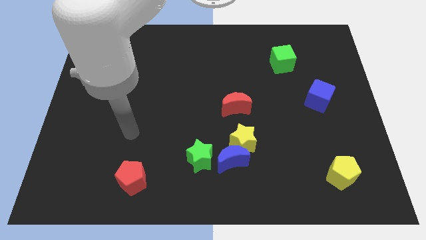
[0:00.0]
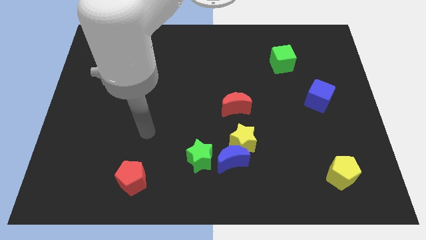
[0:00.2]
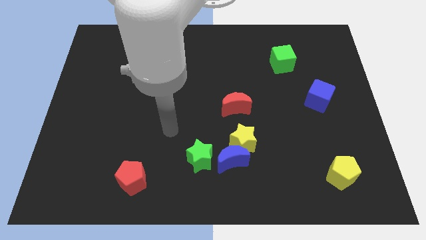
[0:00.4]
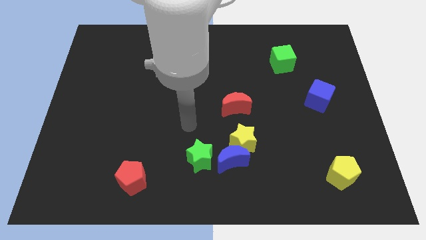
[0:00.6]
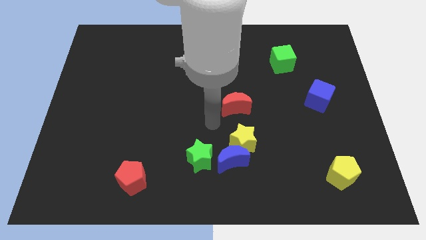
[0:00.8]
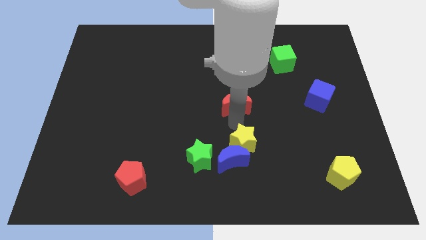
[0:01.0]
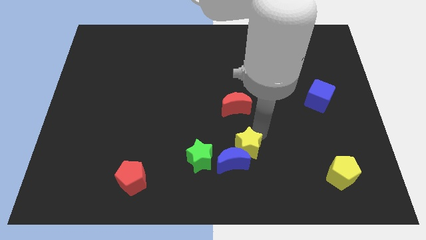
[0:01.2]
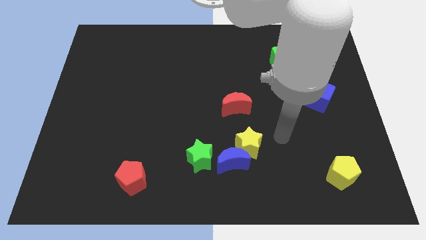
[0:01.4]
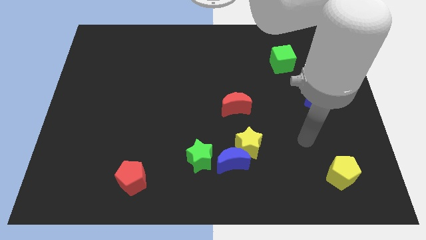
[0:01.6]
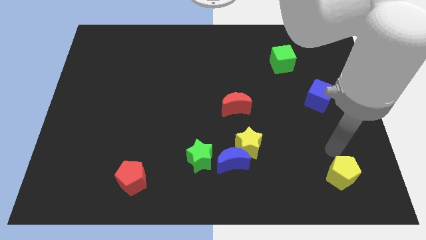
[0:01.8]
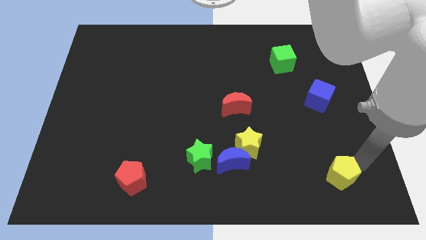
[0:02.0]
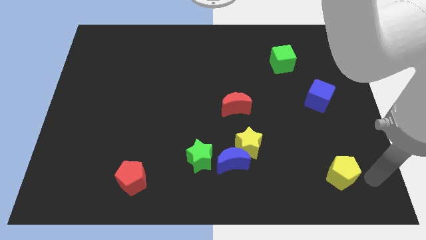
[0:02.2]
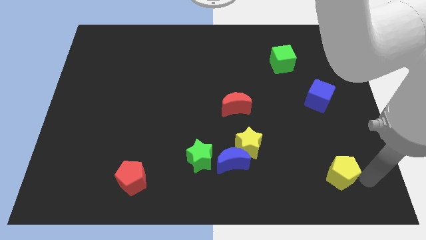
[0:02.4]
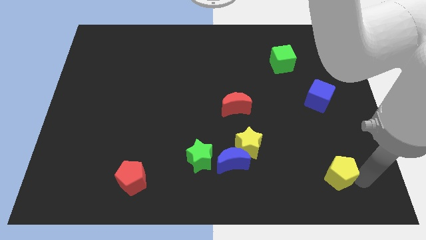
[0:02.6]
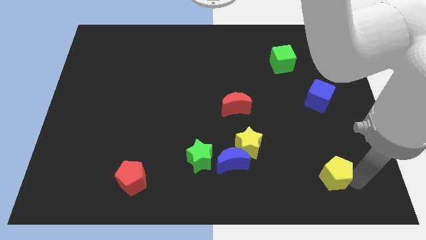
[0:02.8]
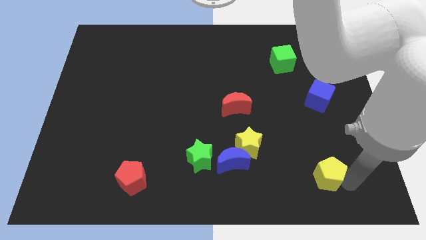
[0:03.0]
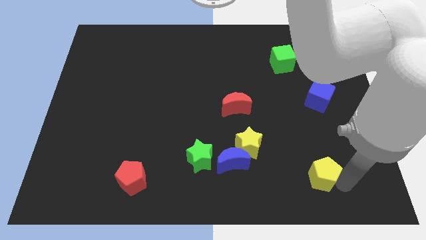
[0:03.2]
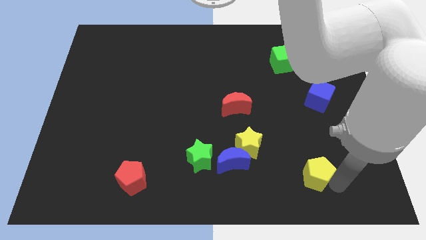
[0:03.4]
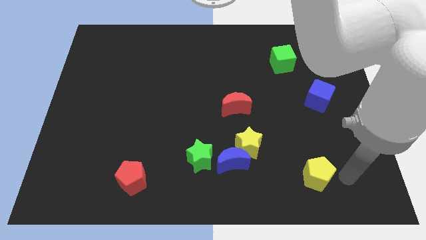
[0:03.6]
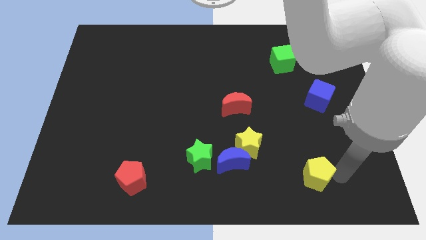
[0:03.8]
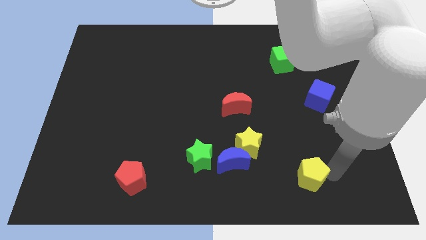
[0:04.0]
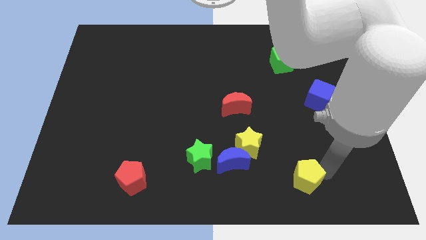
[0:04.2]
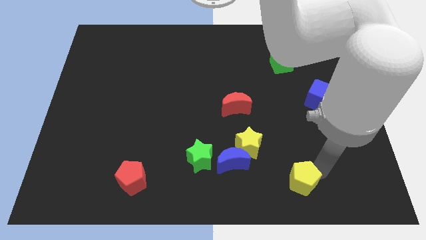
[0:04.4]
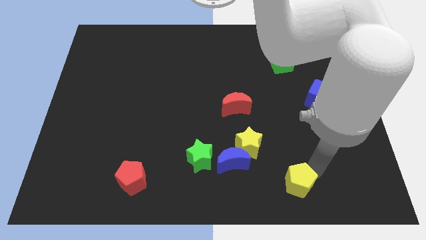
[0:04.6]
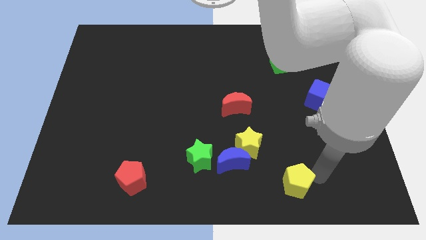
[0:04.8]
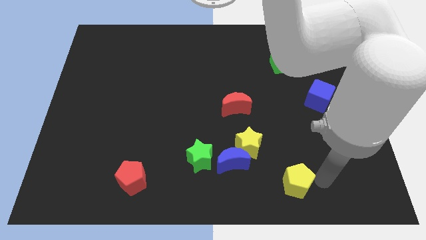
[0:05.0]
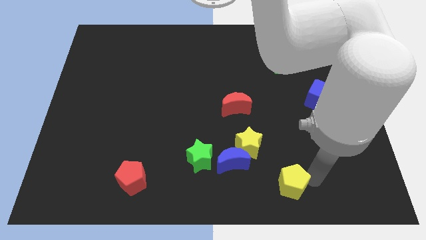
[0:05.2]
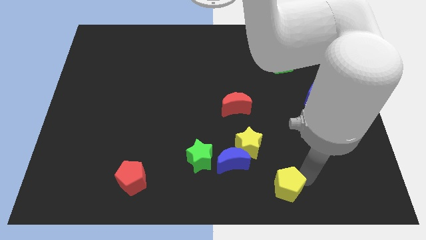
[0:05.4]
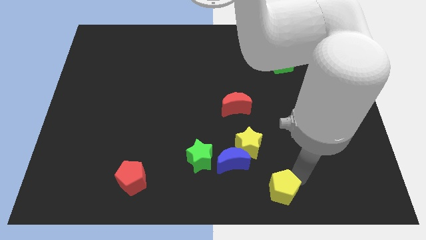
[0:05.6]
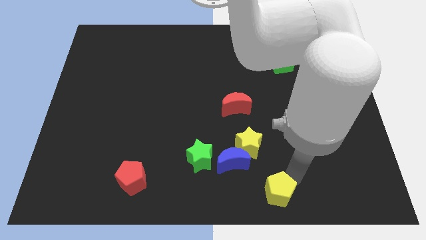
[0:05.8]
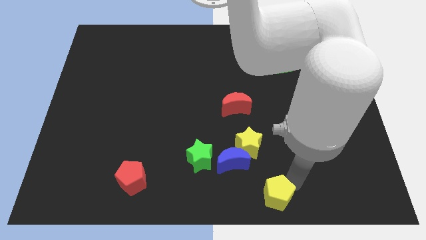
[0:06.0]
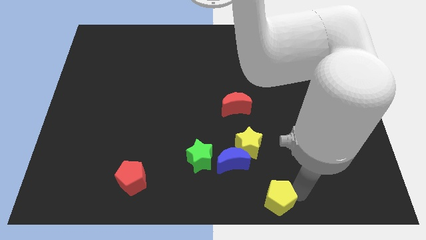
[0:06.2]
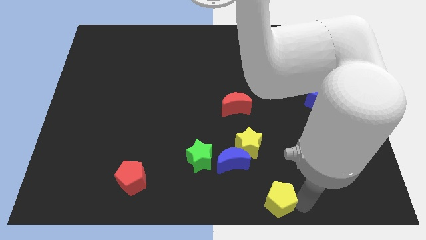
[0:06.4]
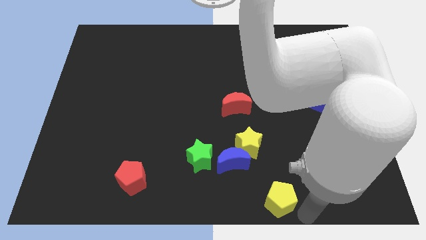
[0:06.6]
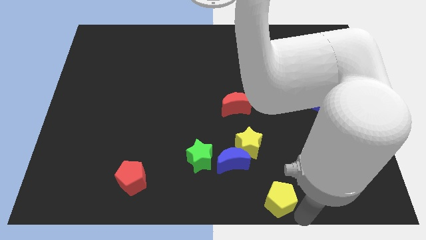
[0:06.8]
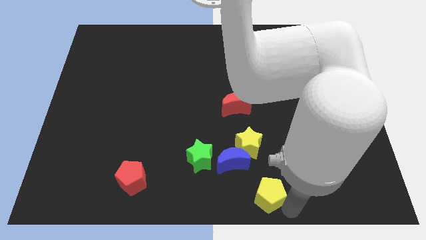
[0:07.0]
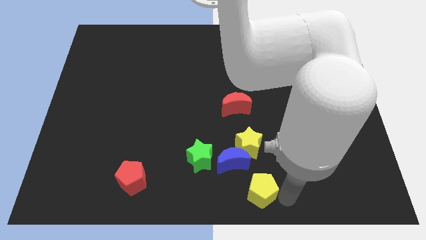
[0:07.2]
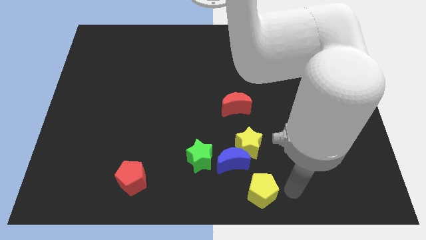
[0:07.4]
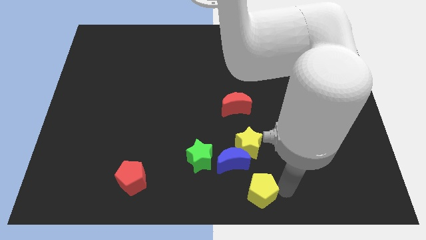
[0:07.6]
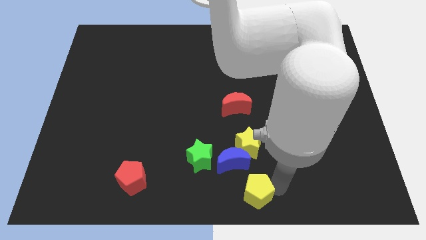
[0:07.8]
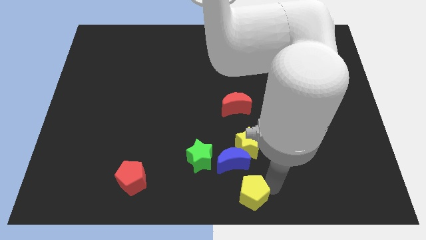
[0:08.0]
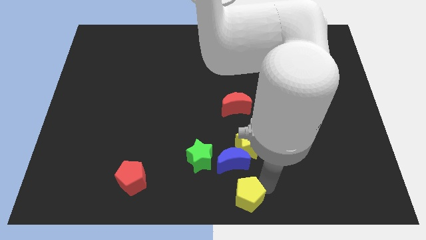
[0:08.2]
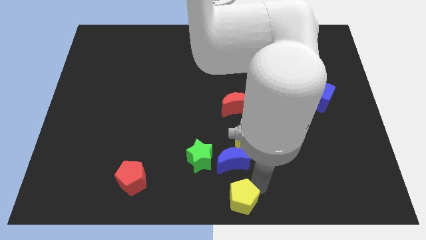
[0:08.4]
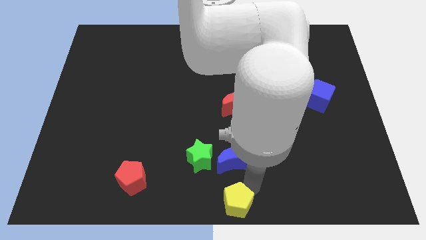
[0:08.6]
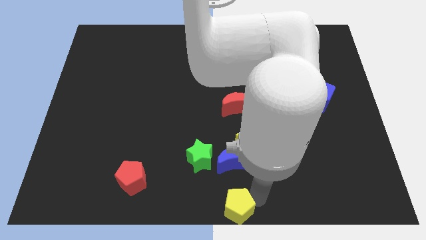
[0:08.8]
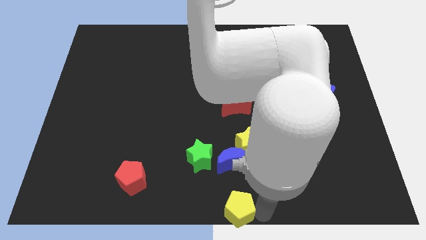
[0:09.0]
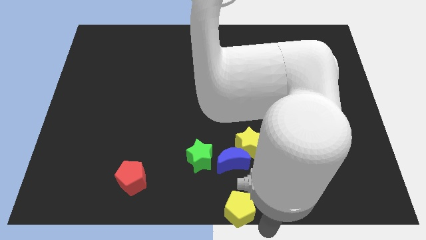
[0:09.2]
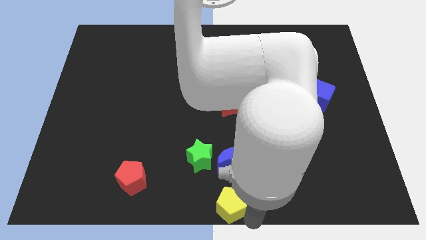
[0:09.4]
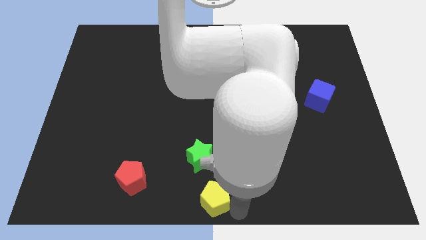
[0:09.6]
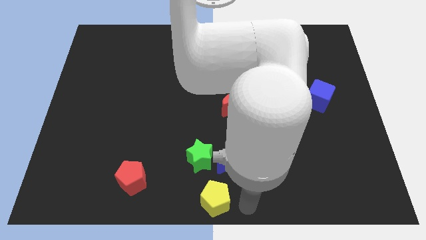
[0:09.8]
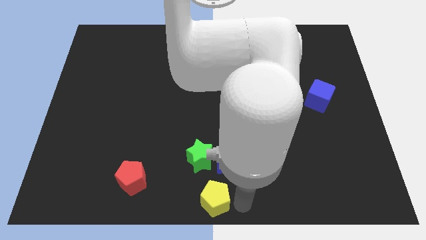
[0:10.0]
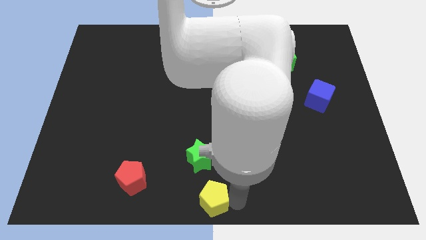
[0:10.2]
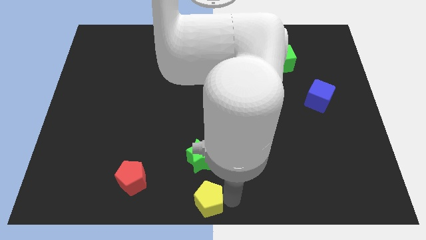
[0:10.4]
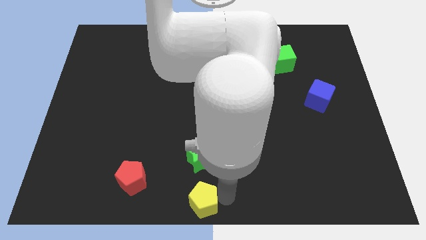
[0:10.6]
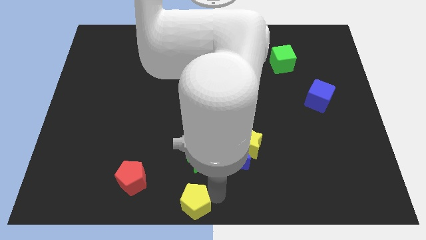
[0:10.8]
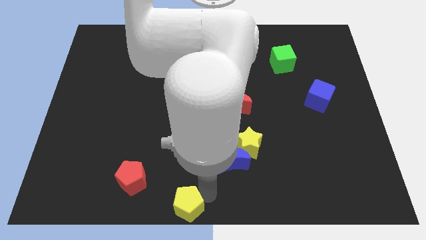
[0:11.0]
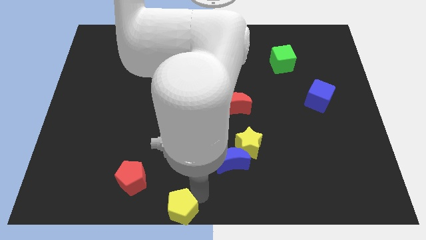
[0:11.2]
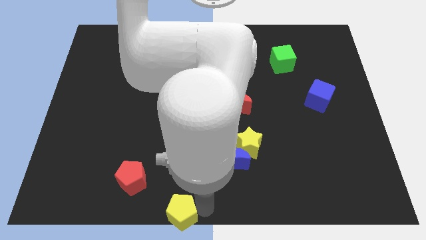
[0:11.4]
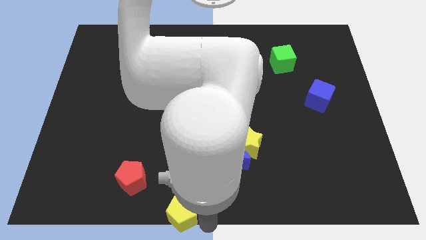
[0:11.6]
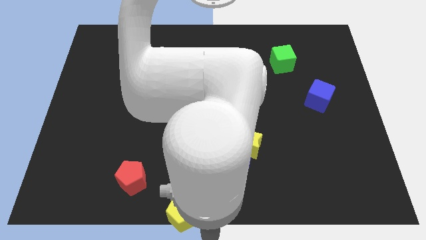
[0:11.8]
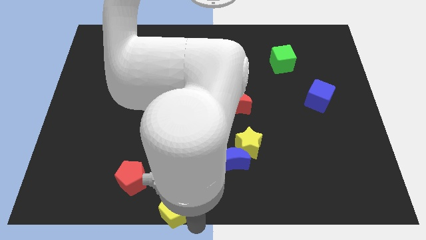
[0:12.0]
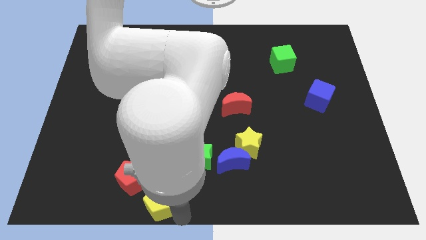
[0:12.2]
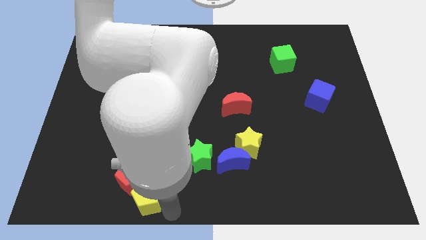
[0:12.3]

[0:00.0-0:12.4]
push the yellow pentagon to the red pentagon
